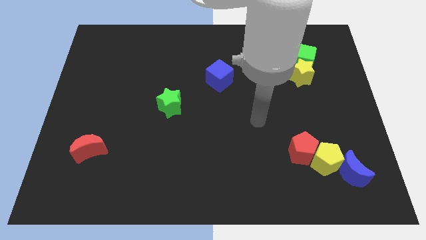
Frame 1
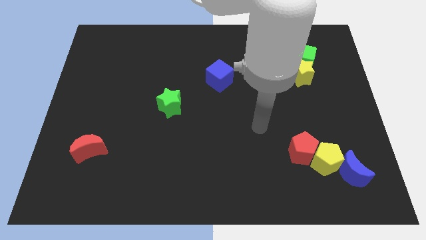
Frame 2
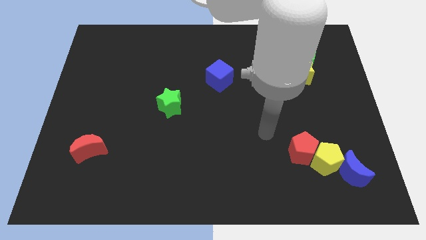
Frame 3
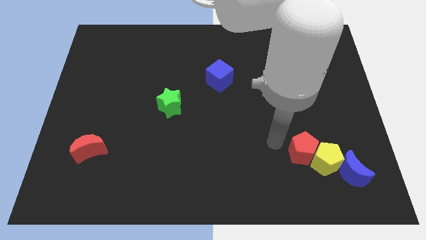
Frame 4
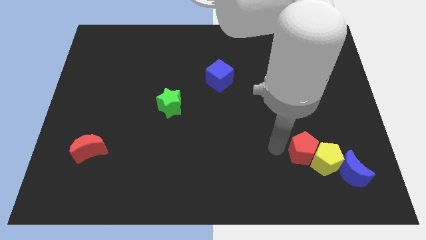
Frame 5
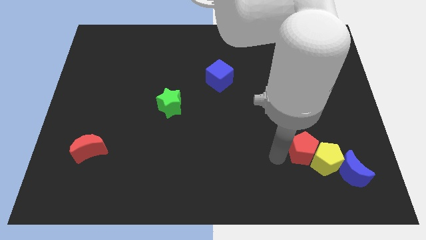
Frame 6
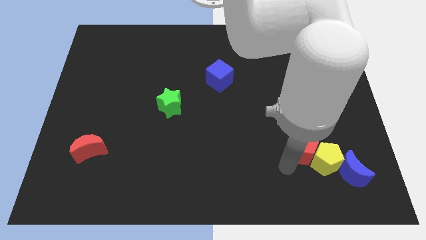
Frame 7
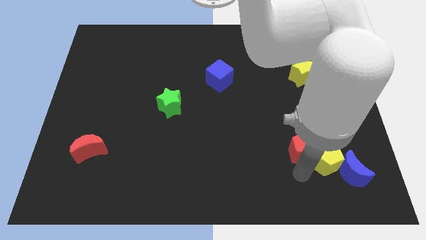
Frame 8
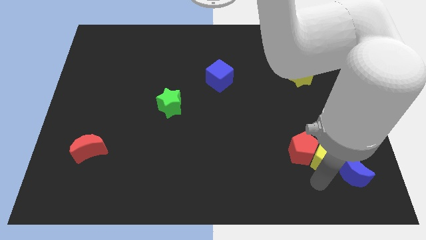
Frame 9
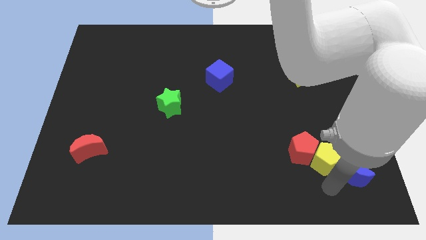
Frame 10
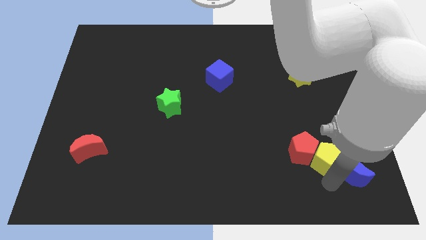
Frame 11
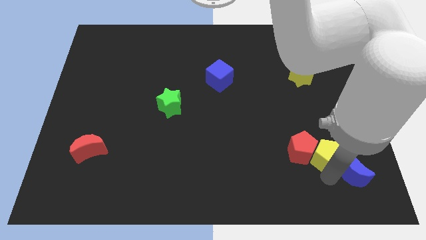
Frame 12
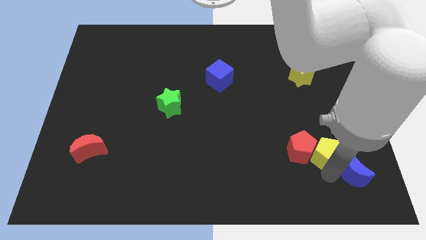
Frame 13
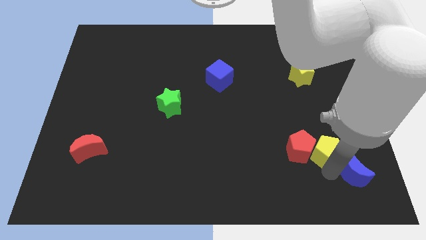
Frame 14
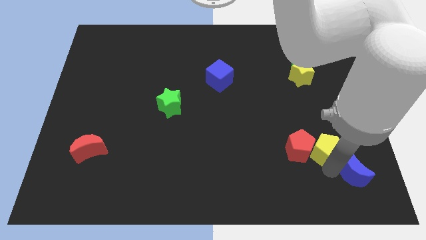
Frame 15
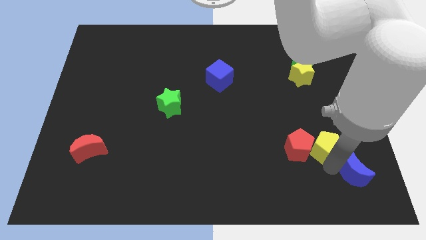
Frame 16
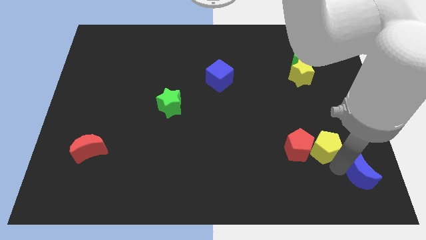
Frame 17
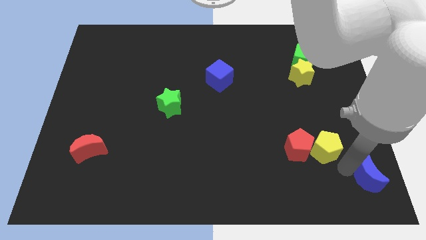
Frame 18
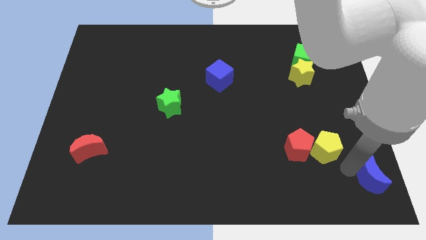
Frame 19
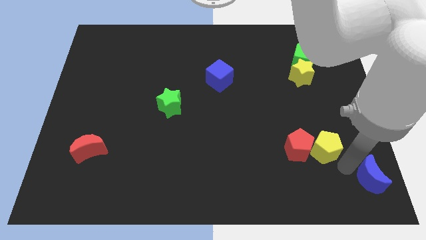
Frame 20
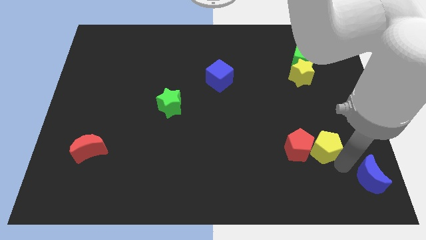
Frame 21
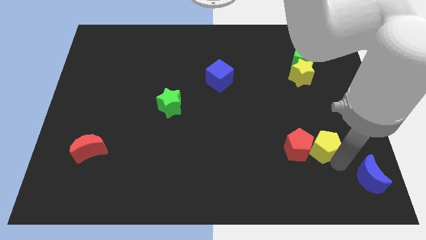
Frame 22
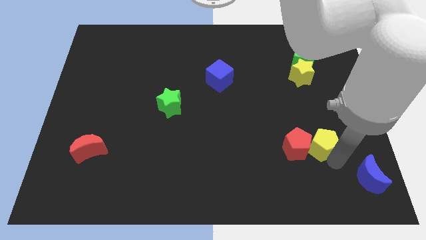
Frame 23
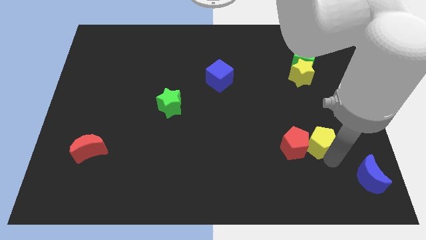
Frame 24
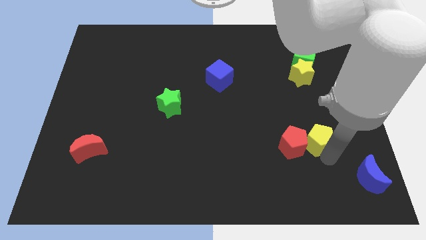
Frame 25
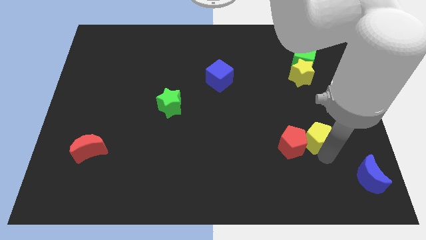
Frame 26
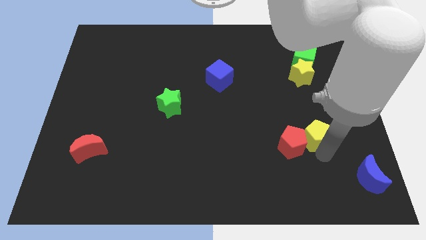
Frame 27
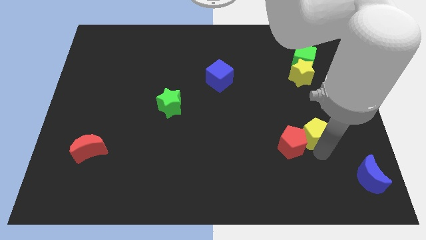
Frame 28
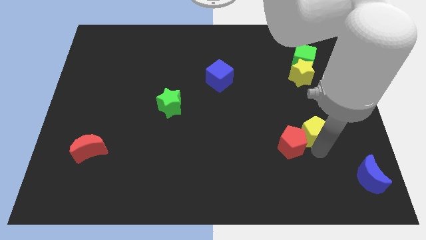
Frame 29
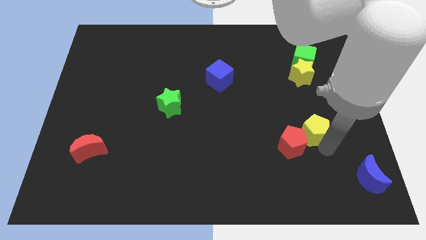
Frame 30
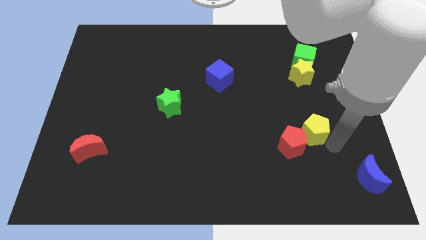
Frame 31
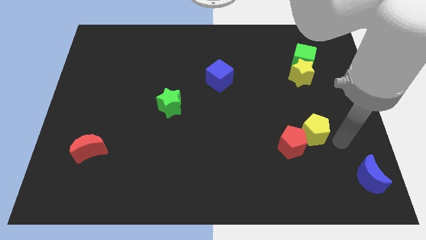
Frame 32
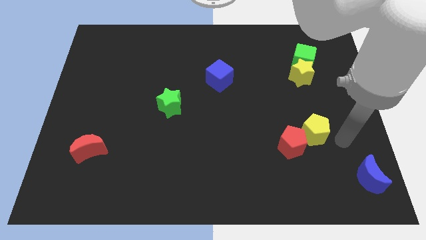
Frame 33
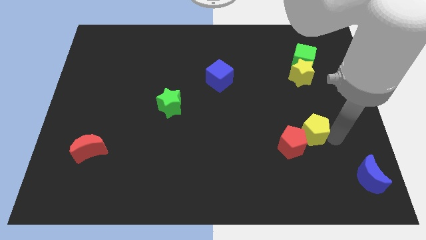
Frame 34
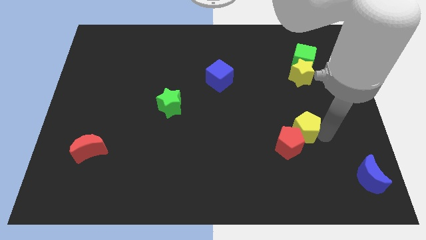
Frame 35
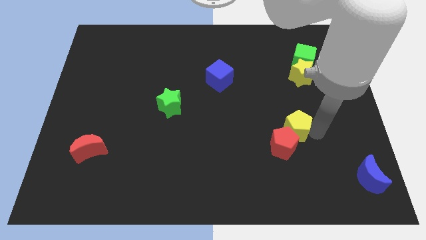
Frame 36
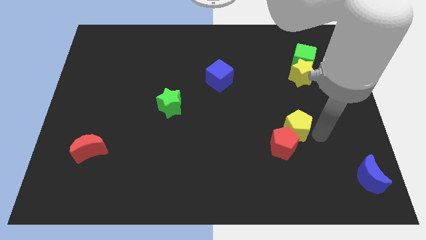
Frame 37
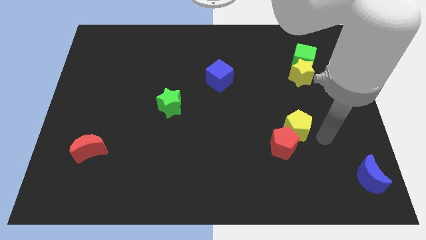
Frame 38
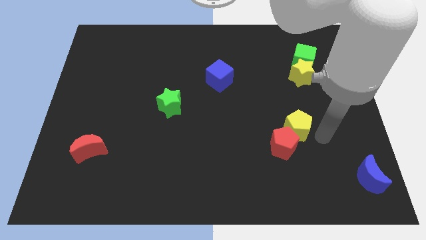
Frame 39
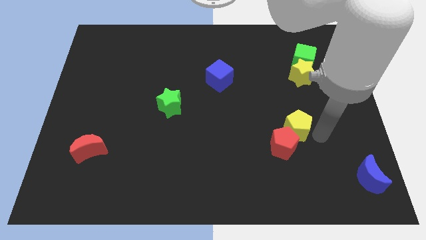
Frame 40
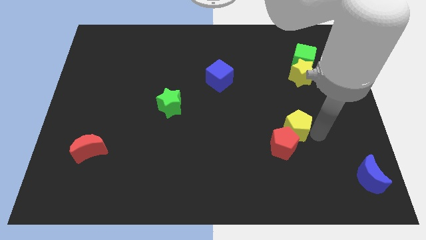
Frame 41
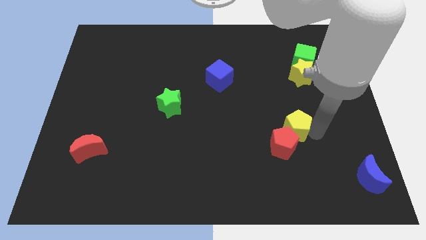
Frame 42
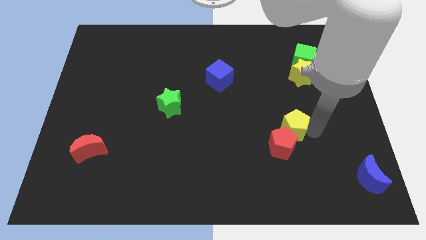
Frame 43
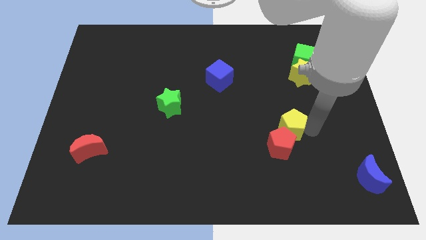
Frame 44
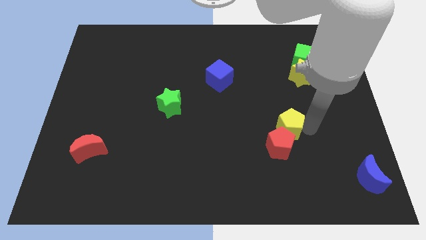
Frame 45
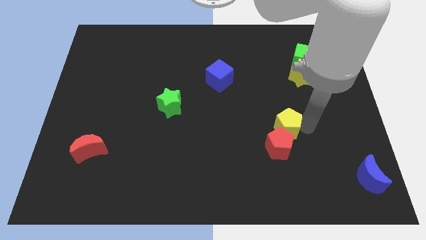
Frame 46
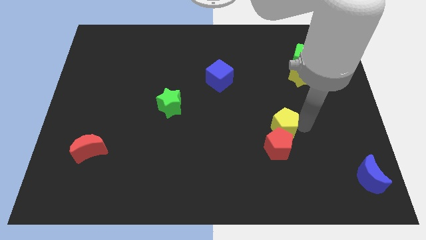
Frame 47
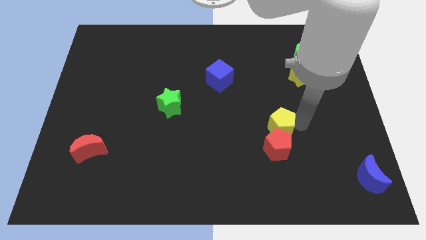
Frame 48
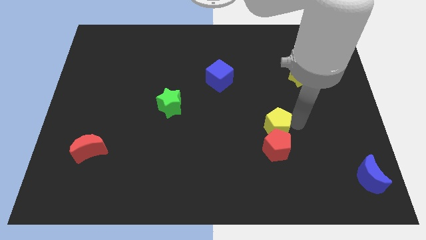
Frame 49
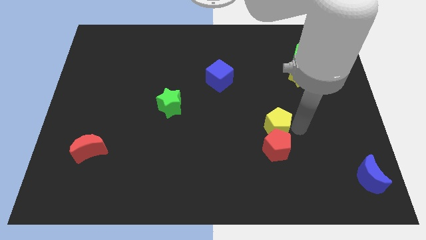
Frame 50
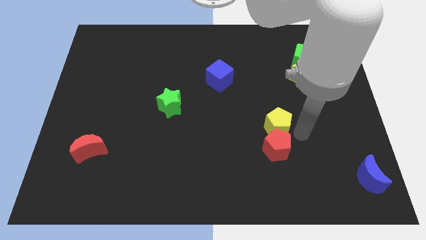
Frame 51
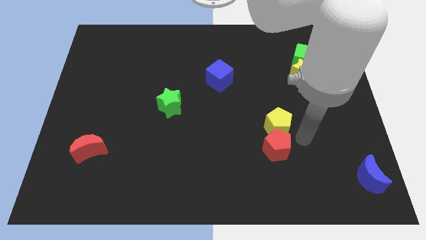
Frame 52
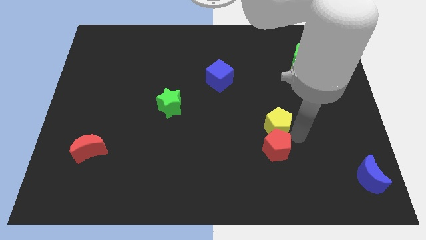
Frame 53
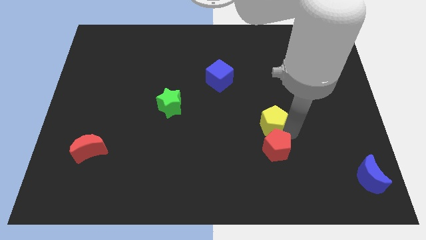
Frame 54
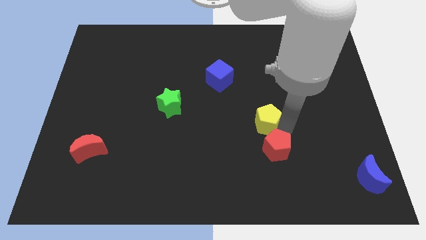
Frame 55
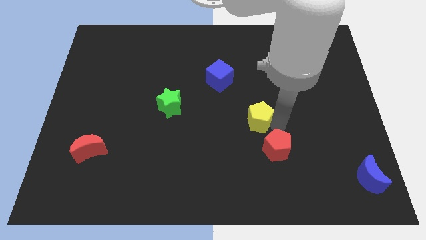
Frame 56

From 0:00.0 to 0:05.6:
move the yellow pentagon to the center of the board

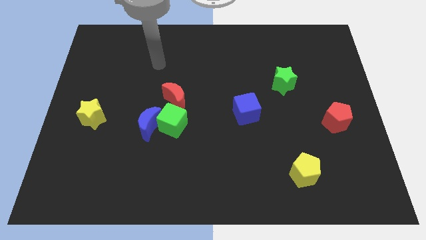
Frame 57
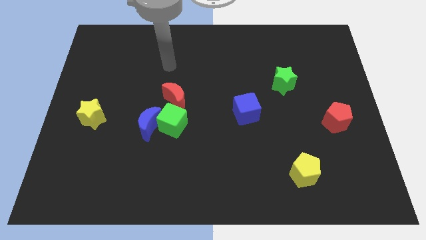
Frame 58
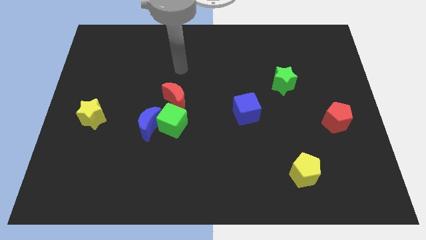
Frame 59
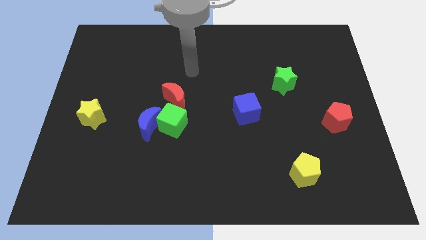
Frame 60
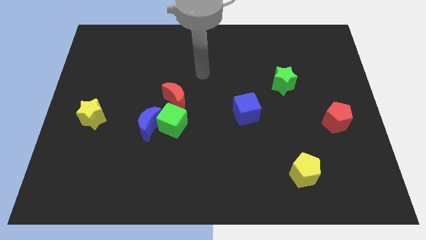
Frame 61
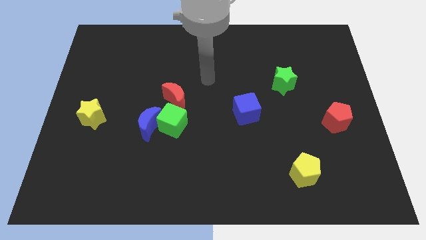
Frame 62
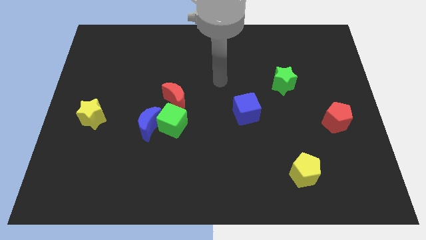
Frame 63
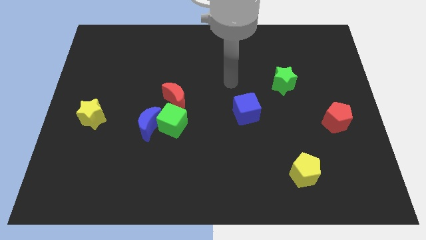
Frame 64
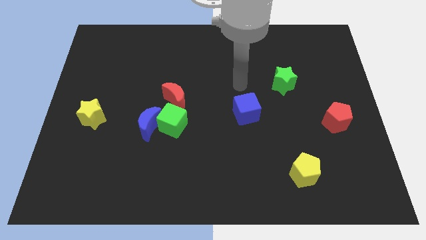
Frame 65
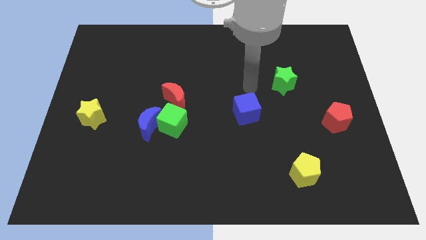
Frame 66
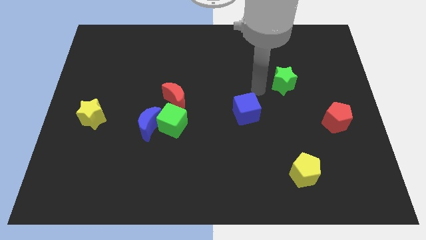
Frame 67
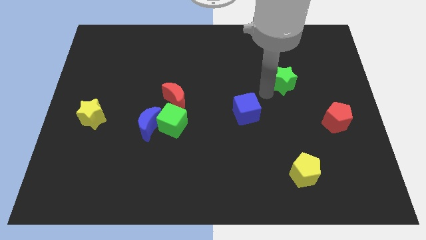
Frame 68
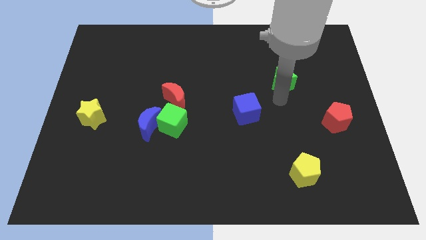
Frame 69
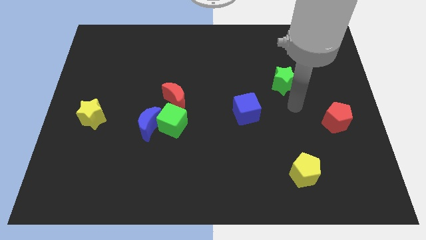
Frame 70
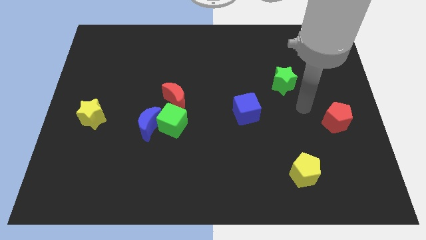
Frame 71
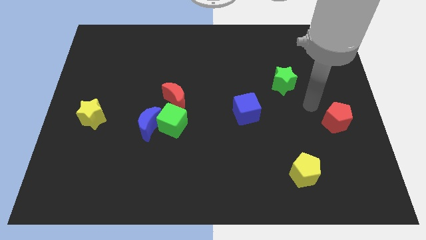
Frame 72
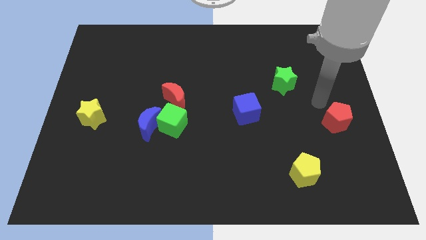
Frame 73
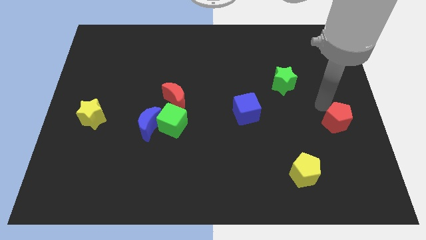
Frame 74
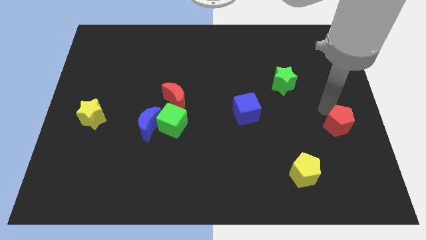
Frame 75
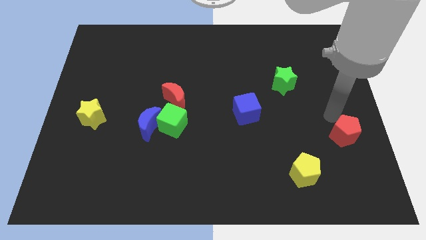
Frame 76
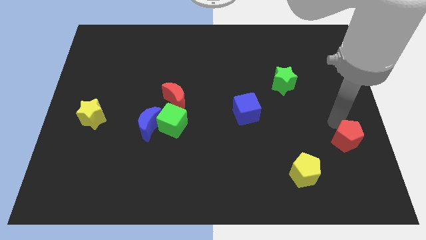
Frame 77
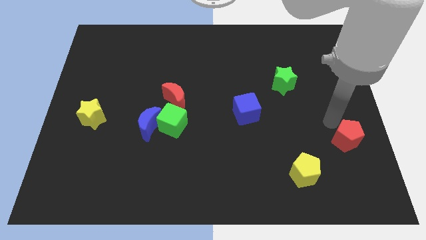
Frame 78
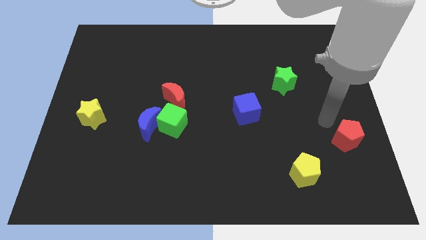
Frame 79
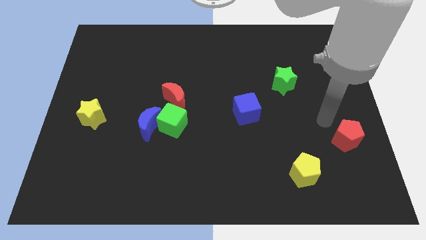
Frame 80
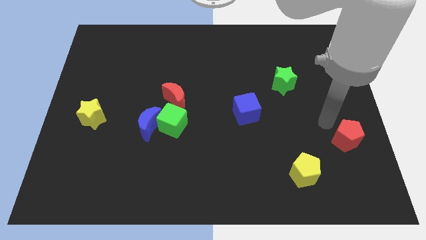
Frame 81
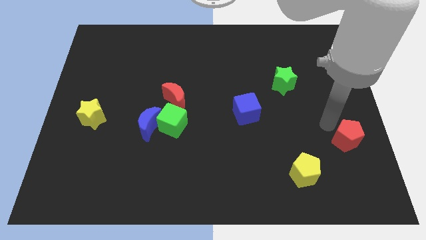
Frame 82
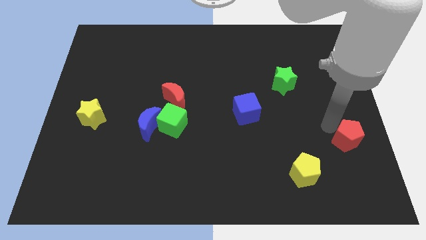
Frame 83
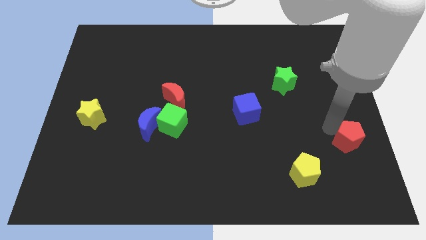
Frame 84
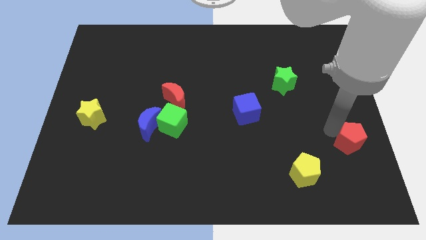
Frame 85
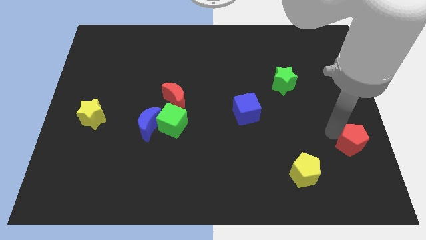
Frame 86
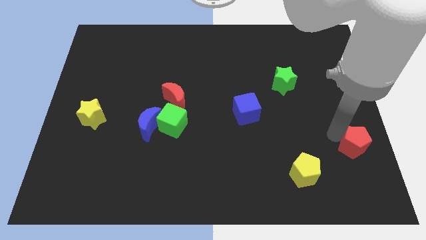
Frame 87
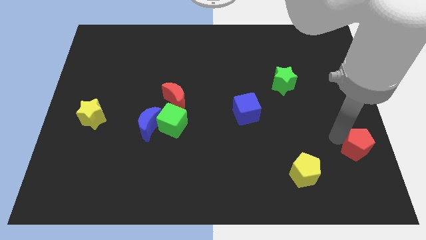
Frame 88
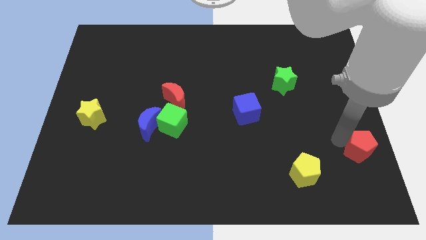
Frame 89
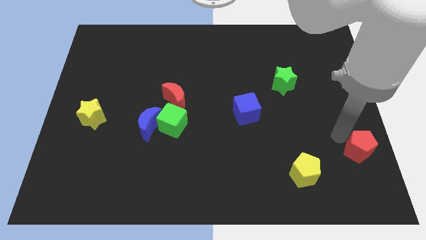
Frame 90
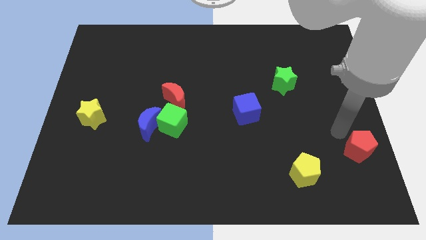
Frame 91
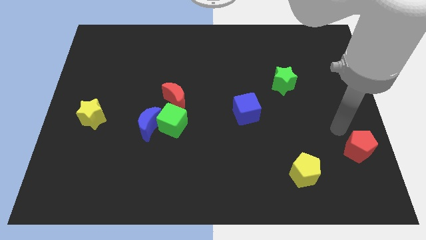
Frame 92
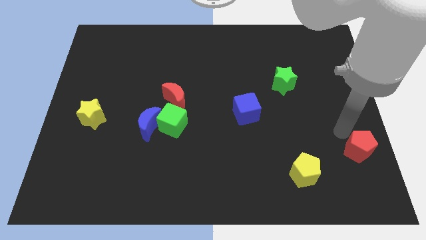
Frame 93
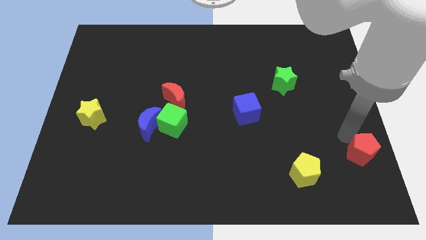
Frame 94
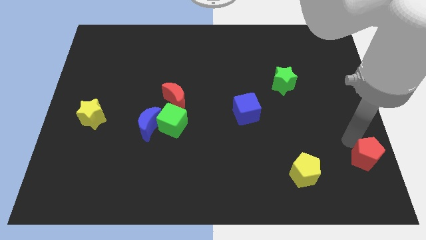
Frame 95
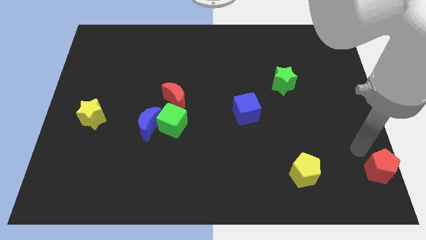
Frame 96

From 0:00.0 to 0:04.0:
slide the red pentagon to the lower right corner
